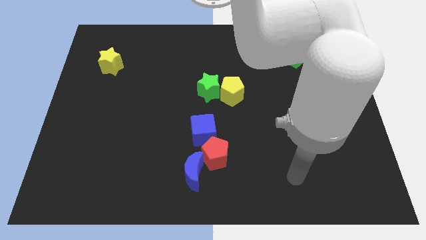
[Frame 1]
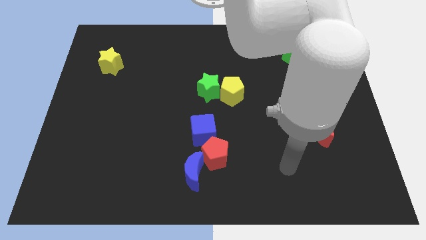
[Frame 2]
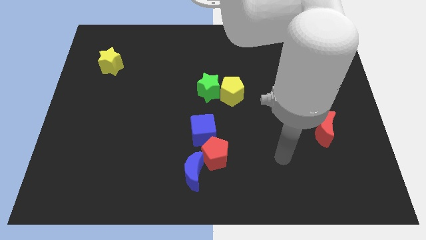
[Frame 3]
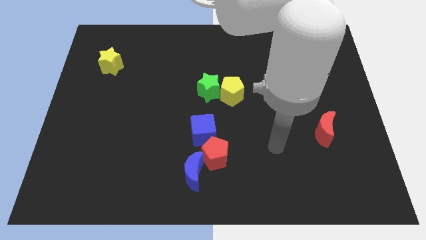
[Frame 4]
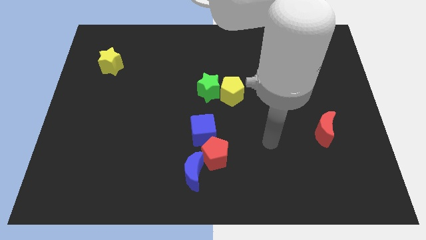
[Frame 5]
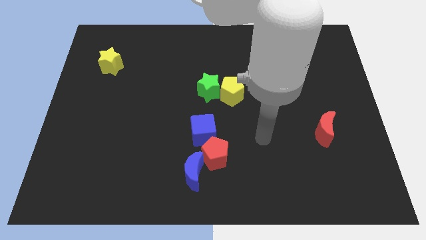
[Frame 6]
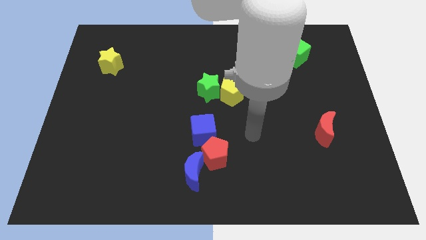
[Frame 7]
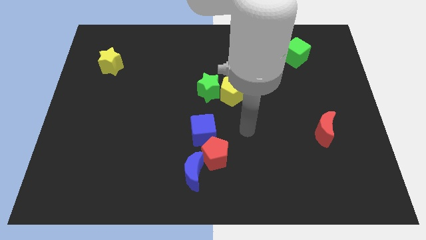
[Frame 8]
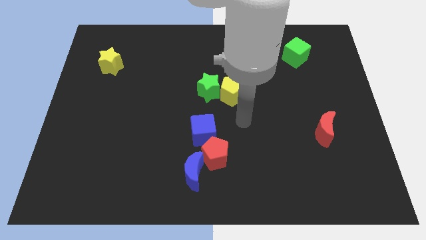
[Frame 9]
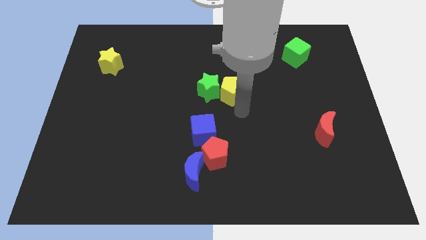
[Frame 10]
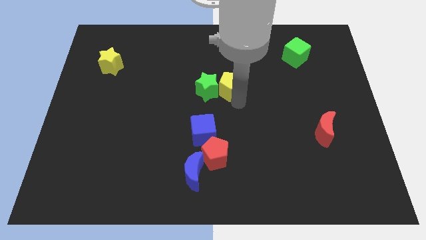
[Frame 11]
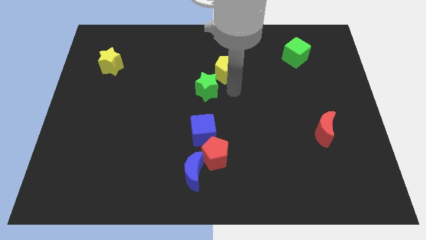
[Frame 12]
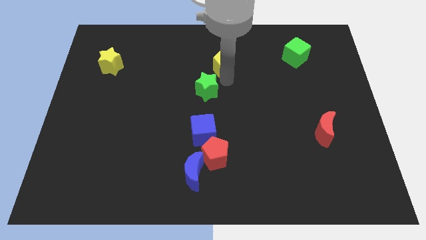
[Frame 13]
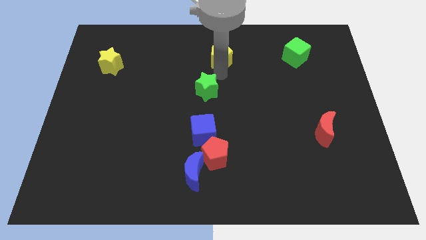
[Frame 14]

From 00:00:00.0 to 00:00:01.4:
separate the green star from the yellow pentagon

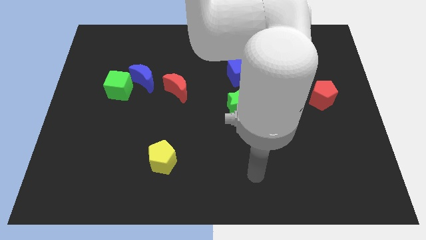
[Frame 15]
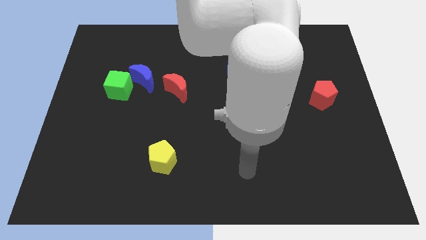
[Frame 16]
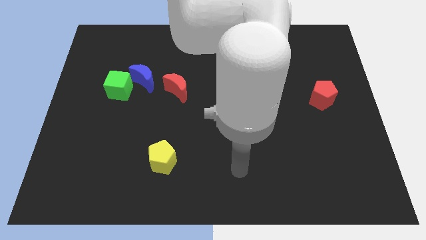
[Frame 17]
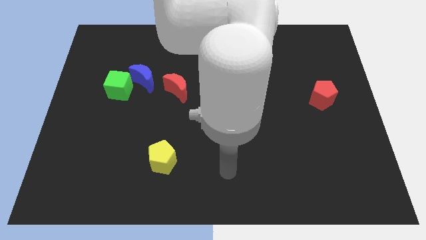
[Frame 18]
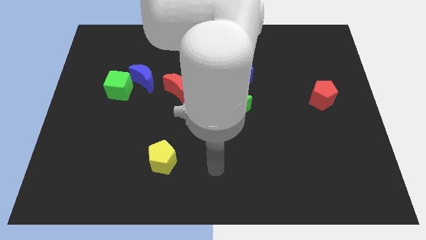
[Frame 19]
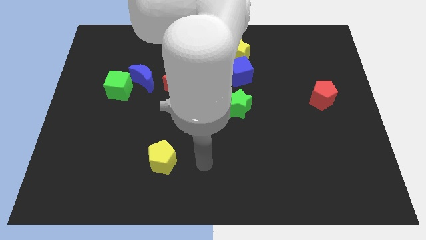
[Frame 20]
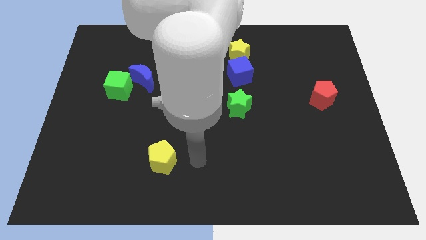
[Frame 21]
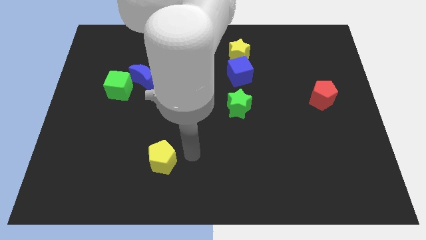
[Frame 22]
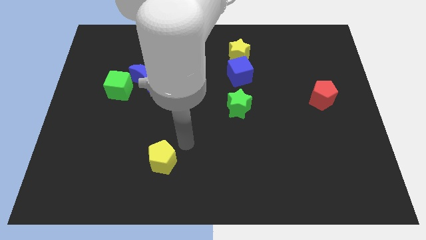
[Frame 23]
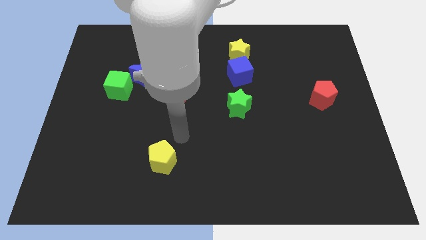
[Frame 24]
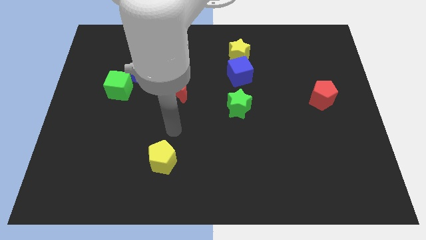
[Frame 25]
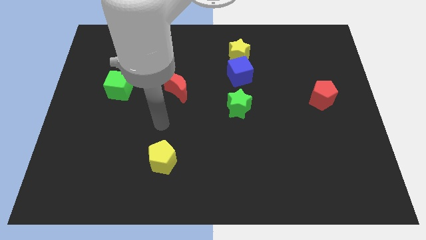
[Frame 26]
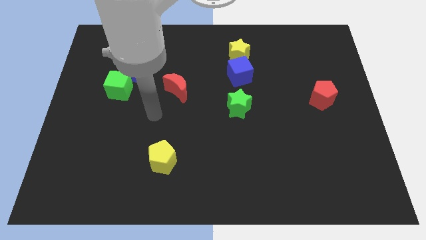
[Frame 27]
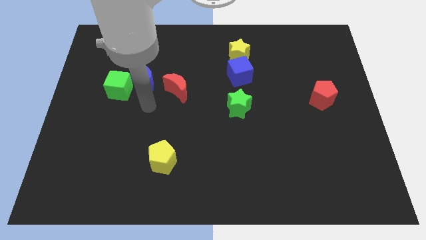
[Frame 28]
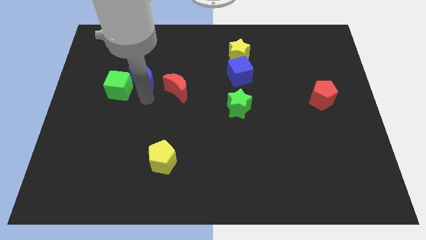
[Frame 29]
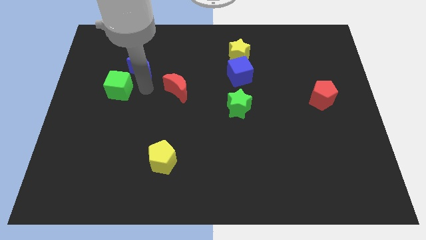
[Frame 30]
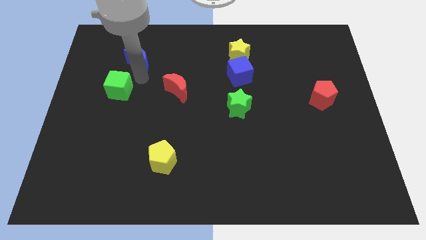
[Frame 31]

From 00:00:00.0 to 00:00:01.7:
move the green cube away from the blue moon

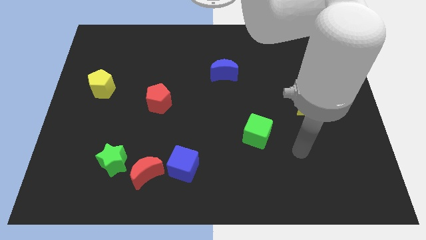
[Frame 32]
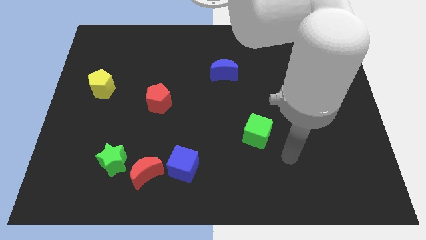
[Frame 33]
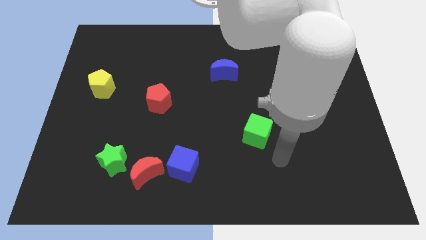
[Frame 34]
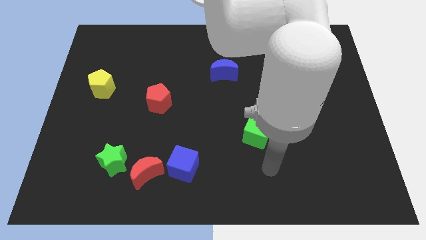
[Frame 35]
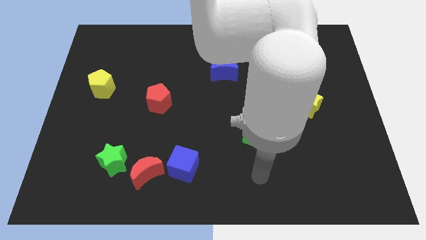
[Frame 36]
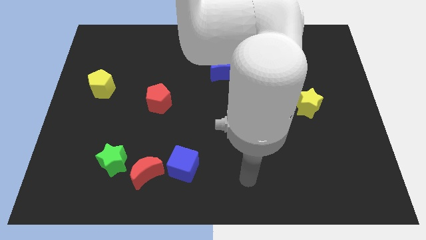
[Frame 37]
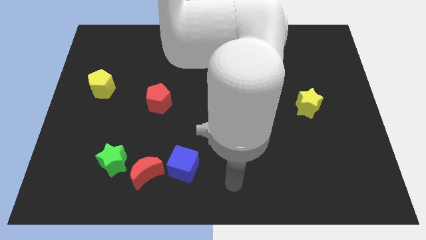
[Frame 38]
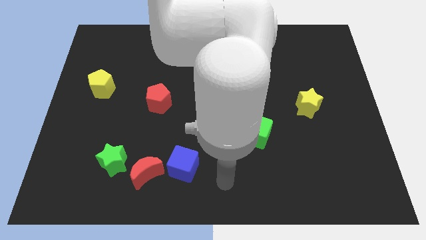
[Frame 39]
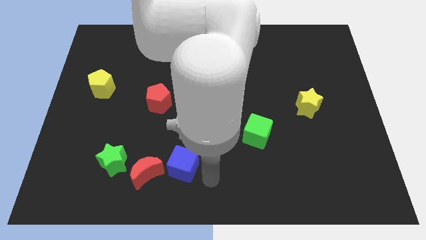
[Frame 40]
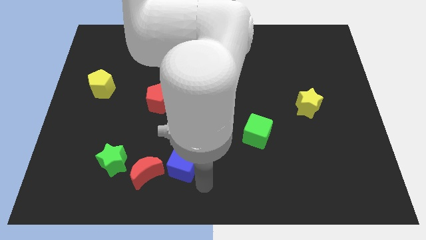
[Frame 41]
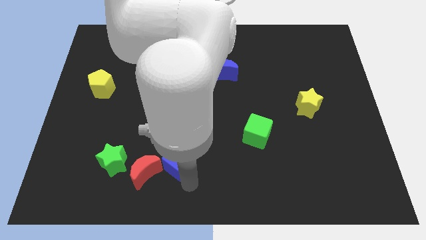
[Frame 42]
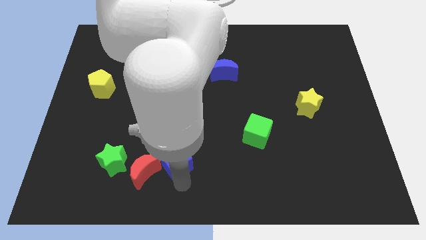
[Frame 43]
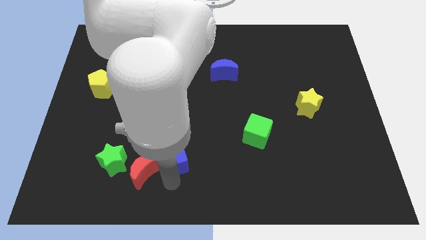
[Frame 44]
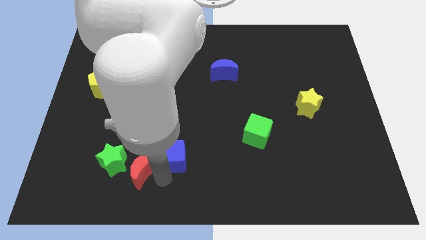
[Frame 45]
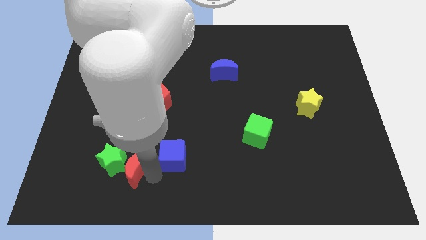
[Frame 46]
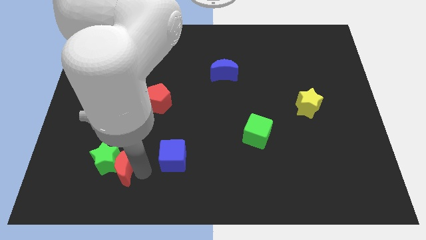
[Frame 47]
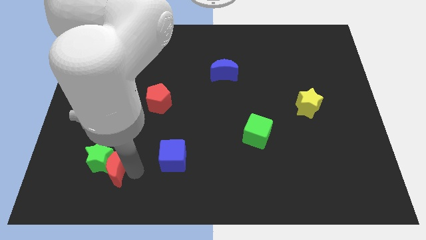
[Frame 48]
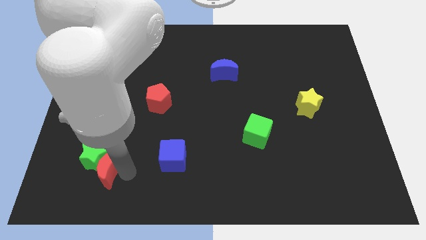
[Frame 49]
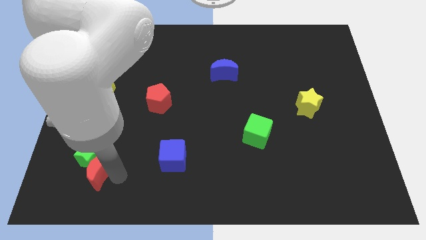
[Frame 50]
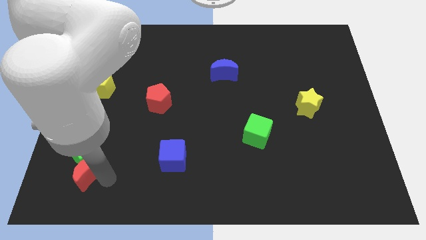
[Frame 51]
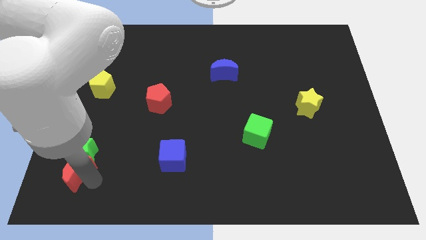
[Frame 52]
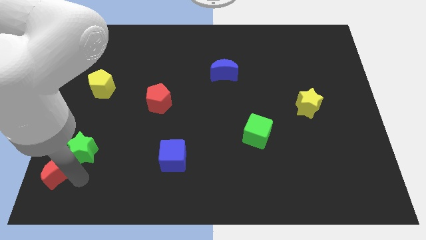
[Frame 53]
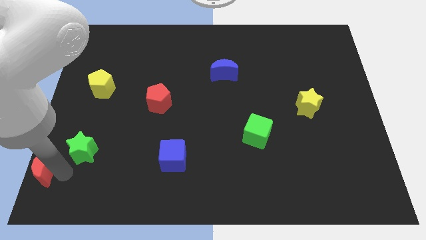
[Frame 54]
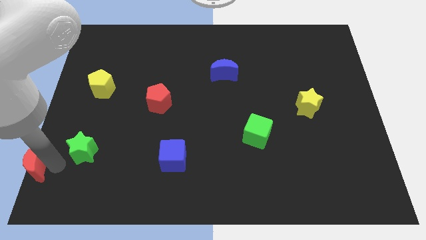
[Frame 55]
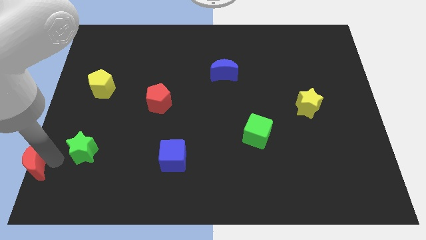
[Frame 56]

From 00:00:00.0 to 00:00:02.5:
move the green star away from the red moon

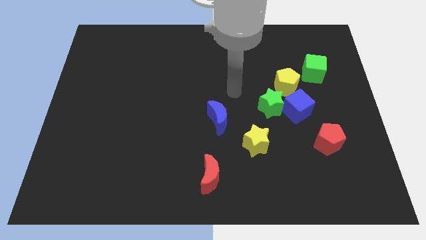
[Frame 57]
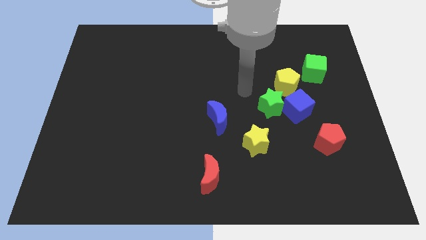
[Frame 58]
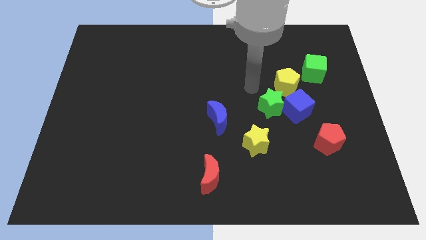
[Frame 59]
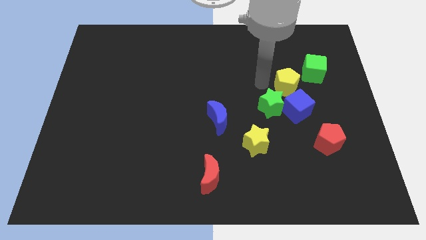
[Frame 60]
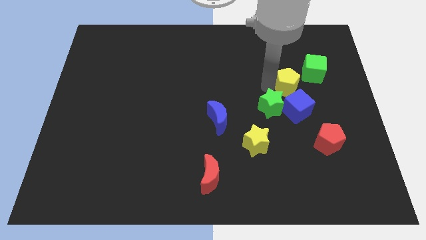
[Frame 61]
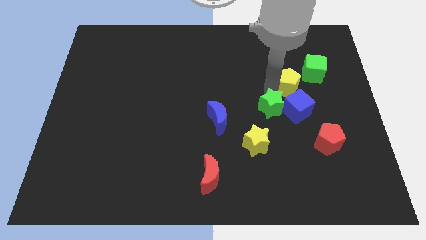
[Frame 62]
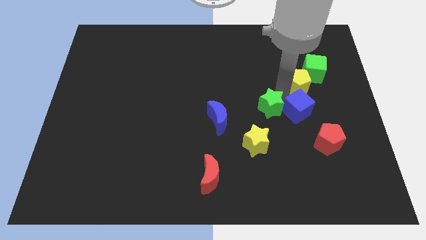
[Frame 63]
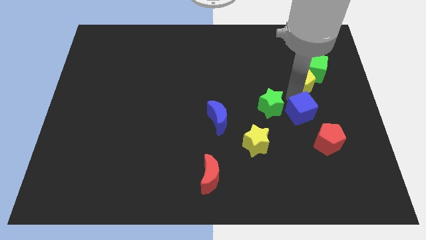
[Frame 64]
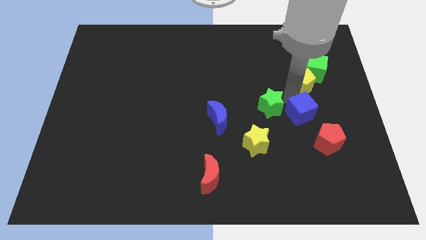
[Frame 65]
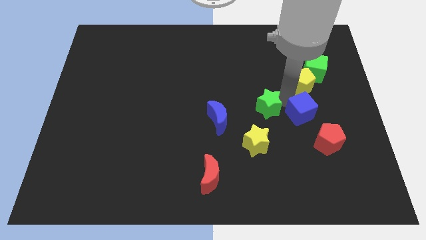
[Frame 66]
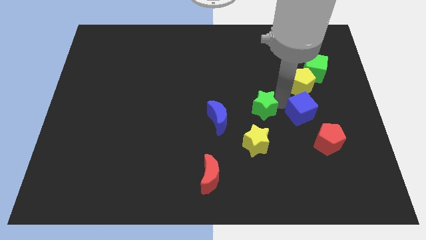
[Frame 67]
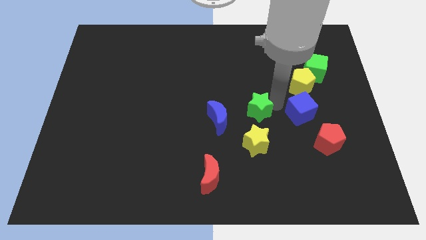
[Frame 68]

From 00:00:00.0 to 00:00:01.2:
move the green star away from the blue cube and yellow pentagon

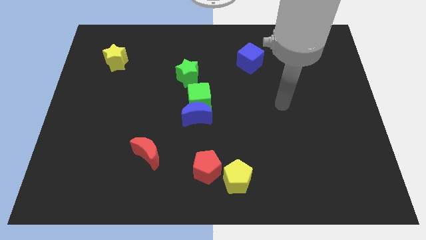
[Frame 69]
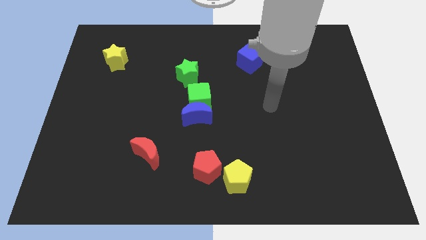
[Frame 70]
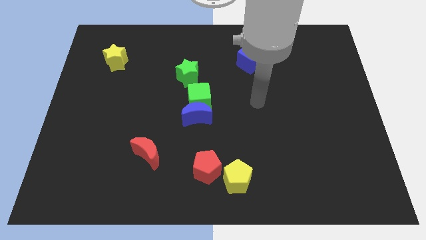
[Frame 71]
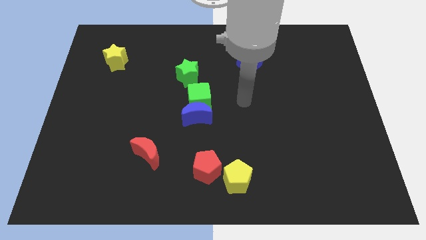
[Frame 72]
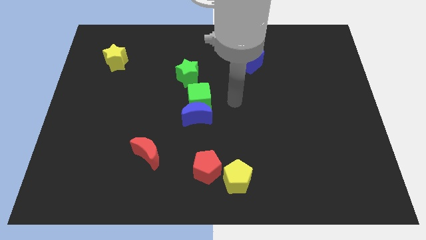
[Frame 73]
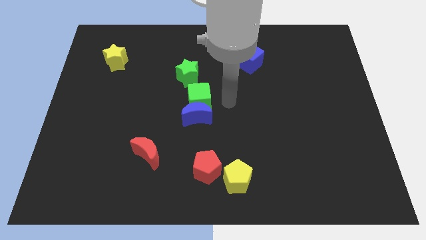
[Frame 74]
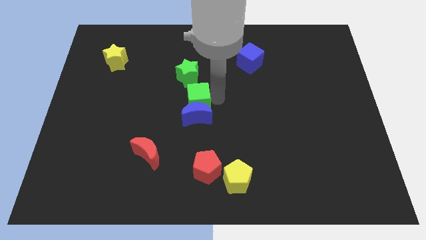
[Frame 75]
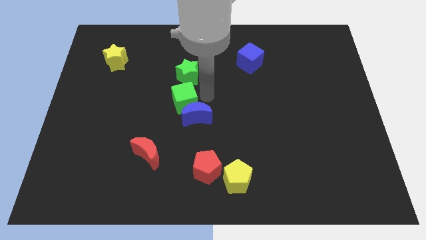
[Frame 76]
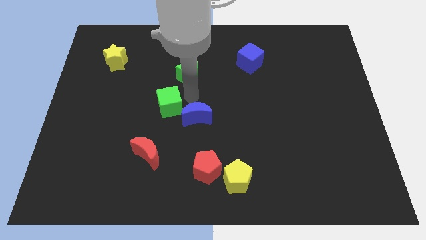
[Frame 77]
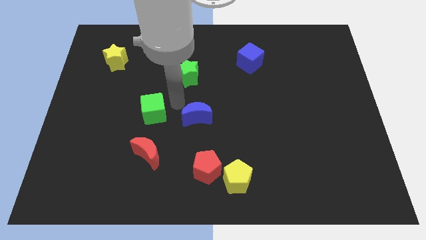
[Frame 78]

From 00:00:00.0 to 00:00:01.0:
separate the blue moon from the green cube

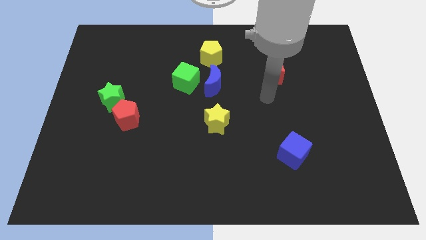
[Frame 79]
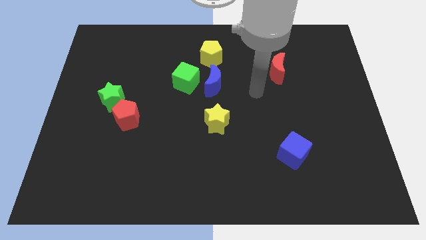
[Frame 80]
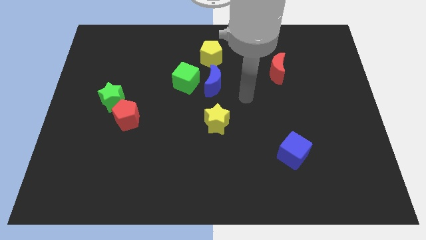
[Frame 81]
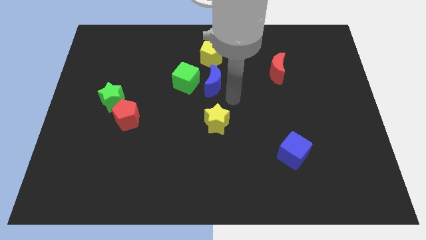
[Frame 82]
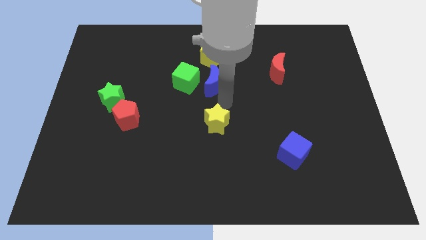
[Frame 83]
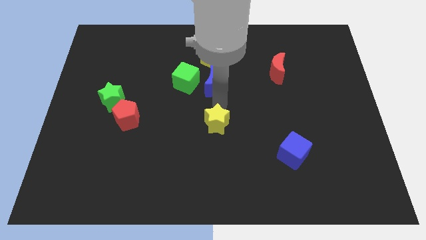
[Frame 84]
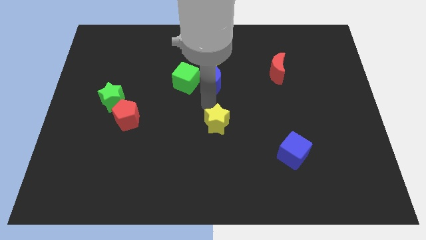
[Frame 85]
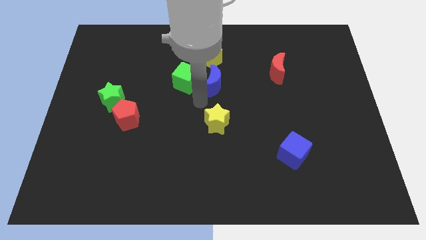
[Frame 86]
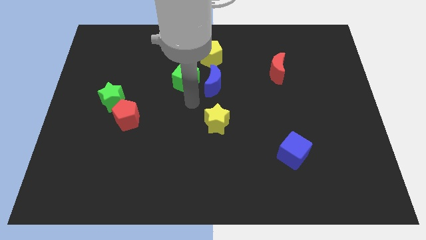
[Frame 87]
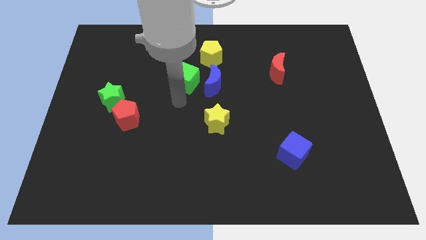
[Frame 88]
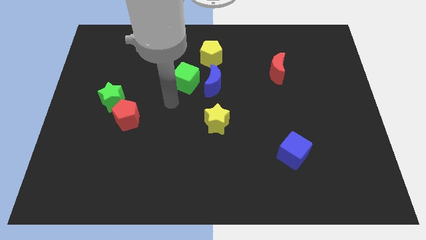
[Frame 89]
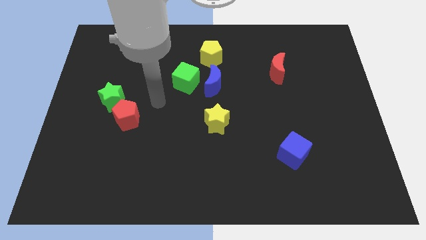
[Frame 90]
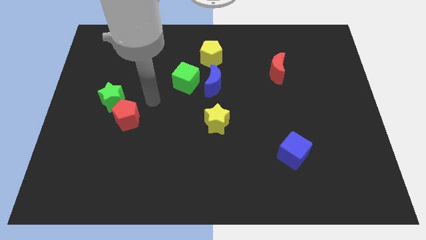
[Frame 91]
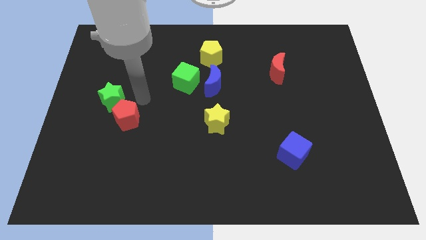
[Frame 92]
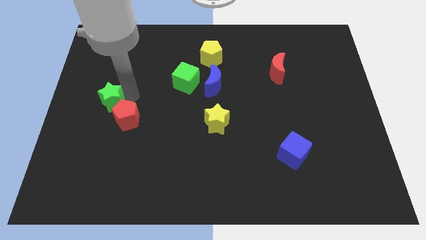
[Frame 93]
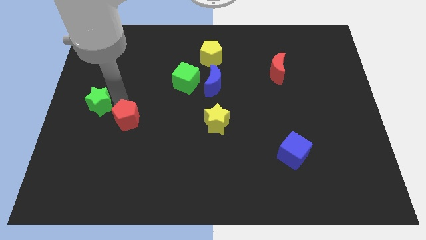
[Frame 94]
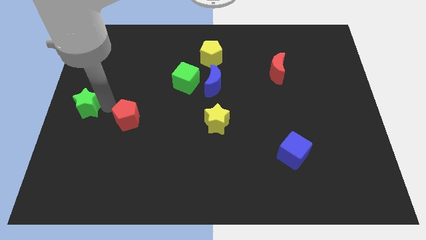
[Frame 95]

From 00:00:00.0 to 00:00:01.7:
move the red pentagon away from the green star
